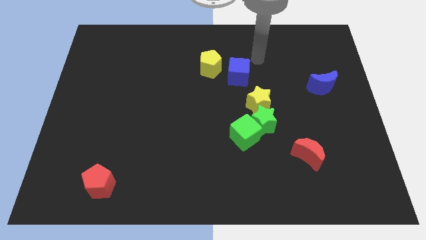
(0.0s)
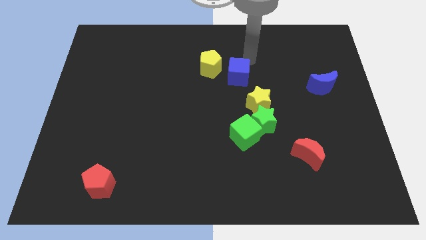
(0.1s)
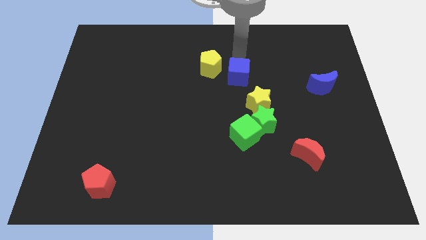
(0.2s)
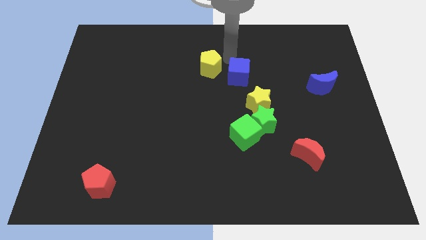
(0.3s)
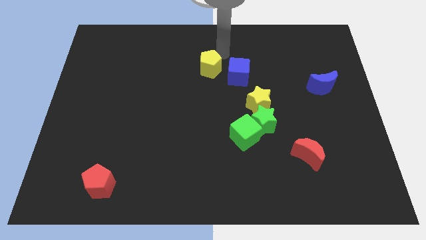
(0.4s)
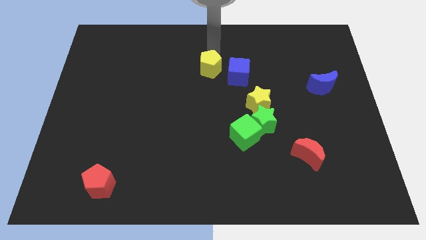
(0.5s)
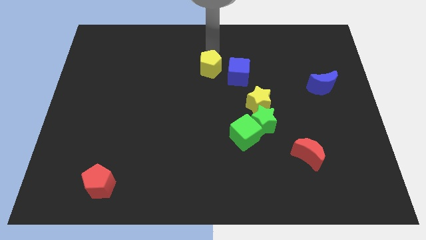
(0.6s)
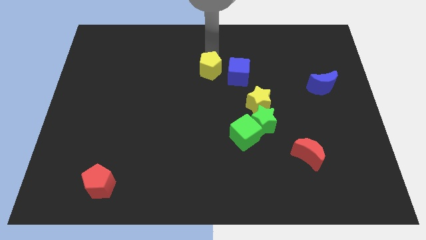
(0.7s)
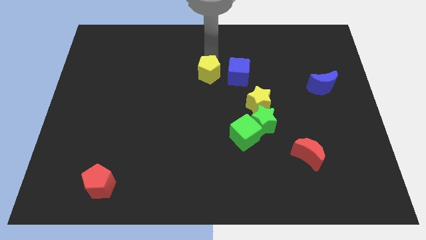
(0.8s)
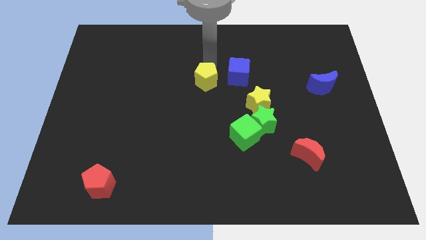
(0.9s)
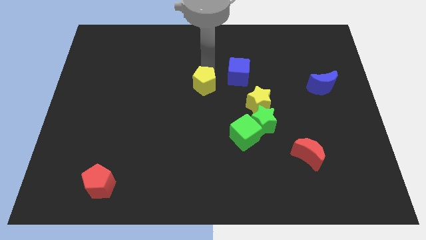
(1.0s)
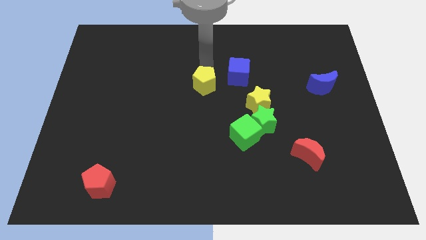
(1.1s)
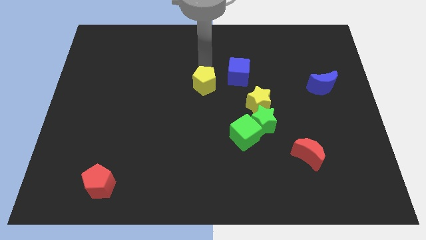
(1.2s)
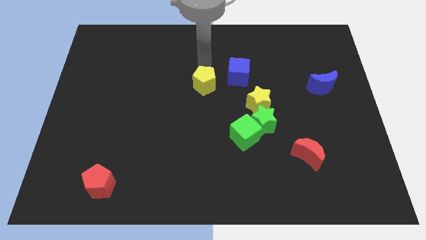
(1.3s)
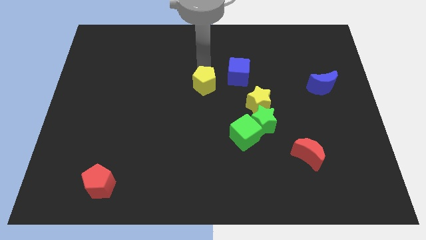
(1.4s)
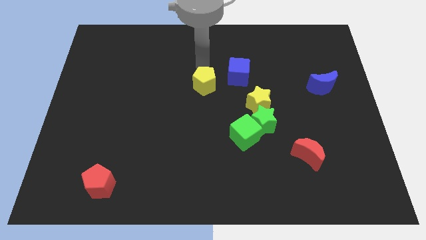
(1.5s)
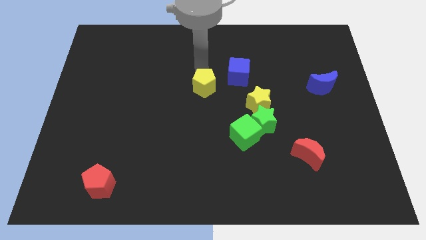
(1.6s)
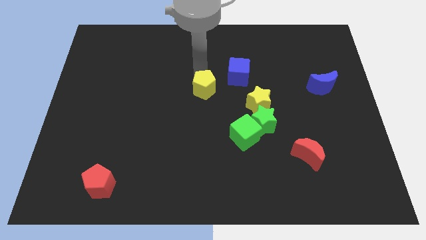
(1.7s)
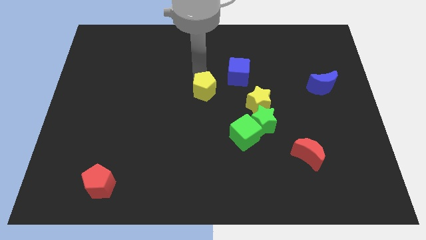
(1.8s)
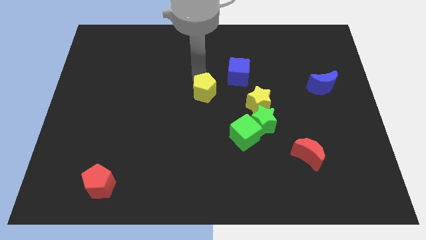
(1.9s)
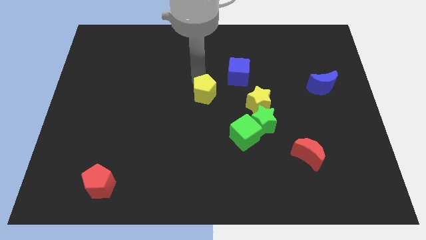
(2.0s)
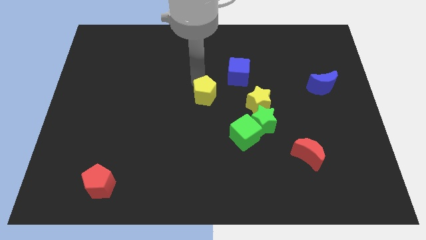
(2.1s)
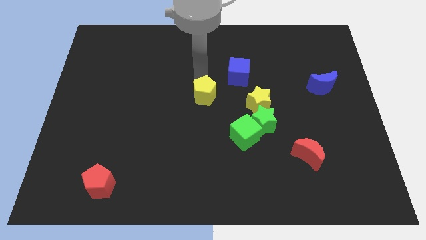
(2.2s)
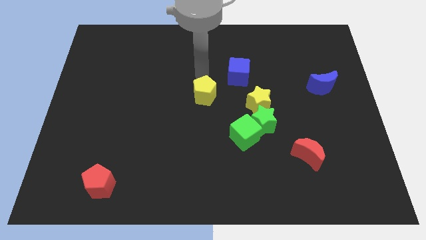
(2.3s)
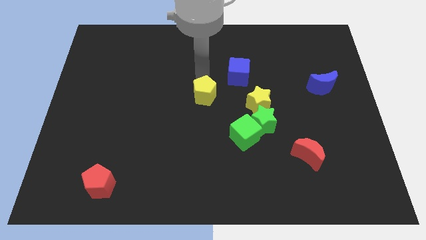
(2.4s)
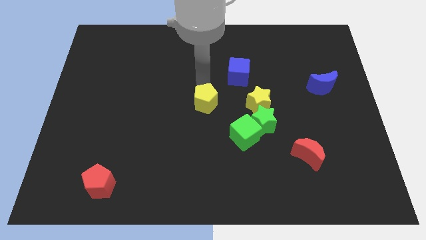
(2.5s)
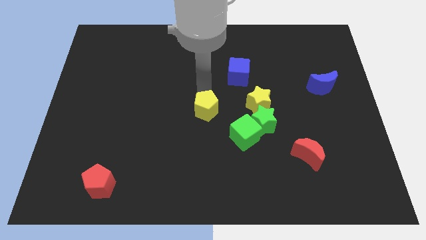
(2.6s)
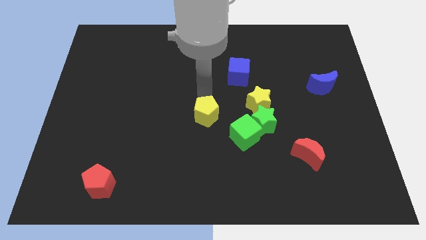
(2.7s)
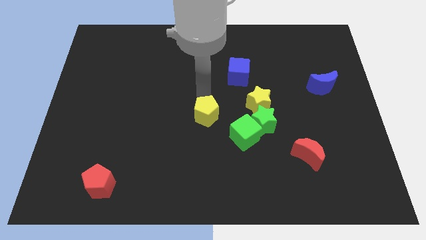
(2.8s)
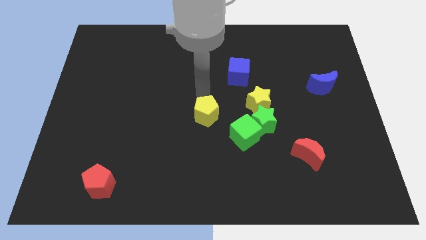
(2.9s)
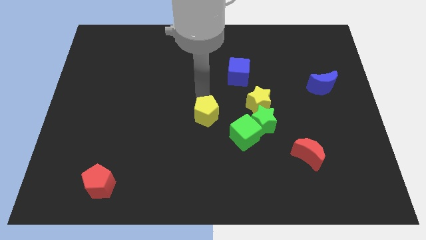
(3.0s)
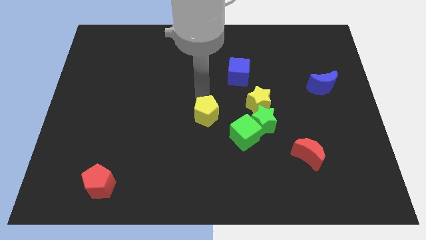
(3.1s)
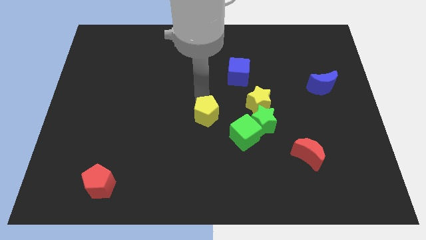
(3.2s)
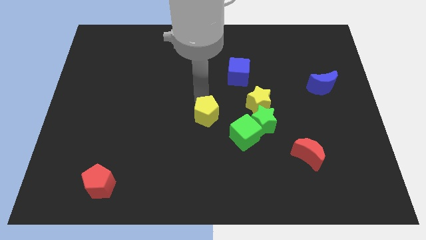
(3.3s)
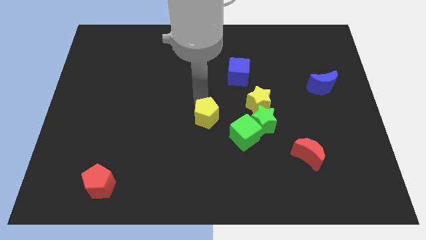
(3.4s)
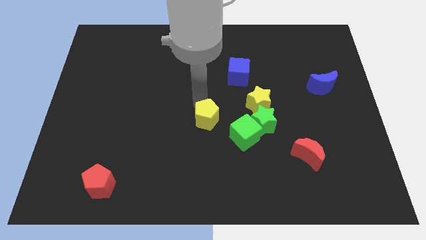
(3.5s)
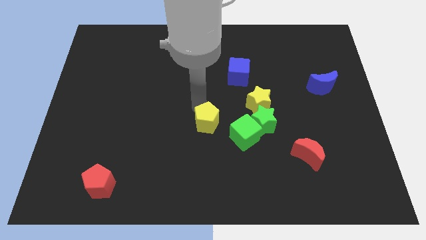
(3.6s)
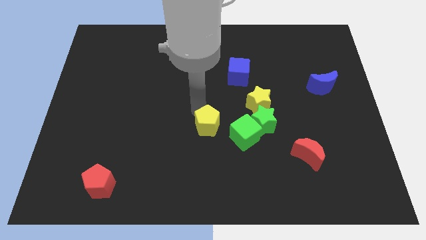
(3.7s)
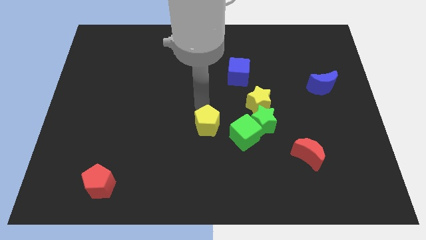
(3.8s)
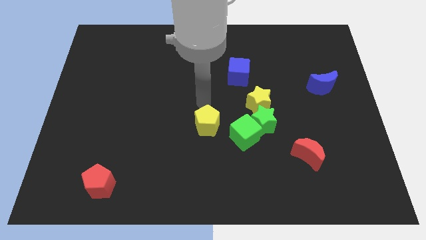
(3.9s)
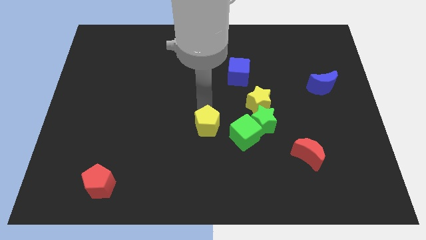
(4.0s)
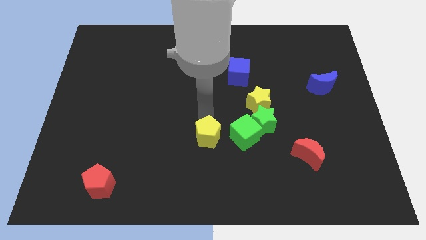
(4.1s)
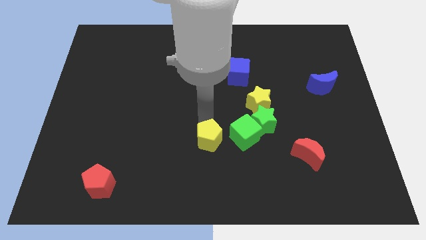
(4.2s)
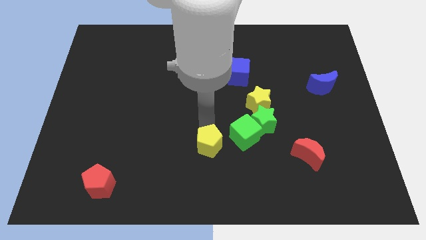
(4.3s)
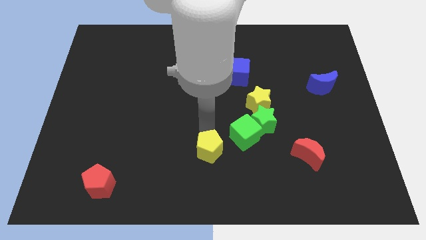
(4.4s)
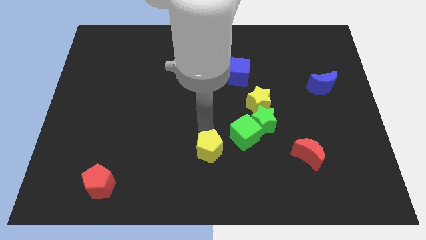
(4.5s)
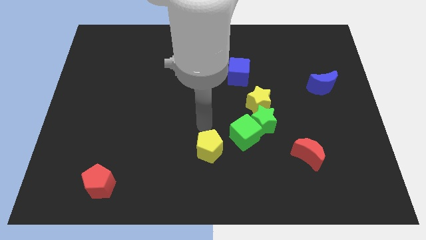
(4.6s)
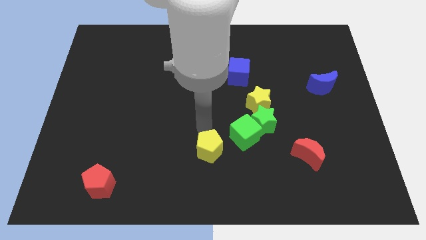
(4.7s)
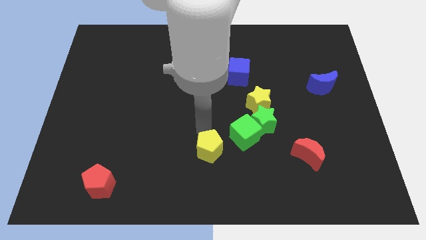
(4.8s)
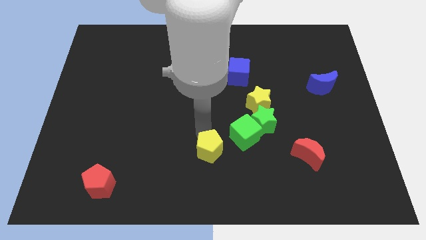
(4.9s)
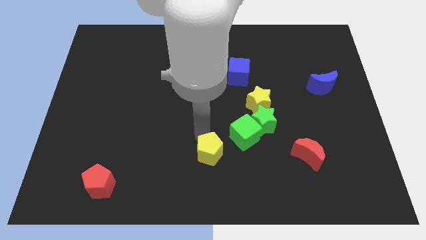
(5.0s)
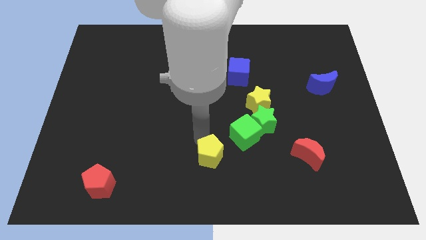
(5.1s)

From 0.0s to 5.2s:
push the yellow pentagon to the bottom

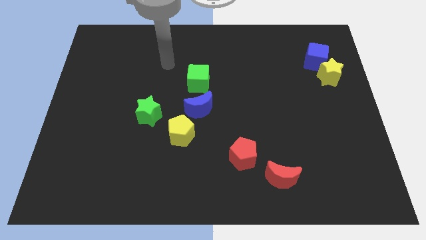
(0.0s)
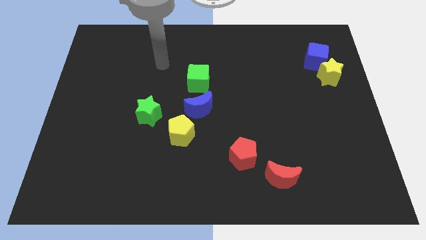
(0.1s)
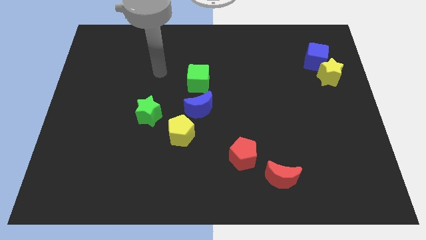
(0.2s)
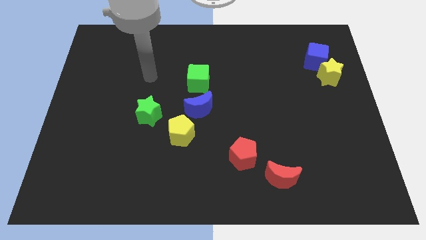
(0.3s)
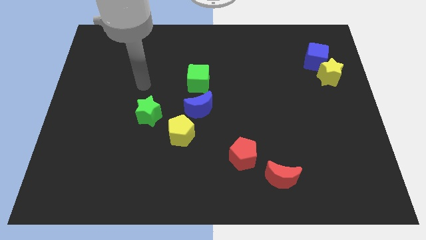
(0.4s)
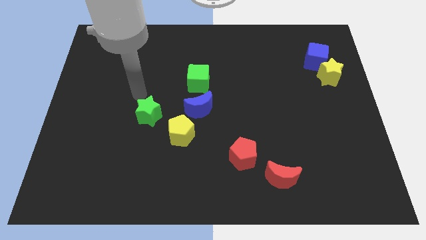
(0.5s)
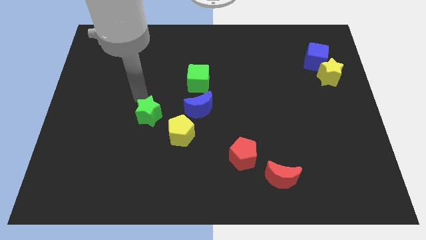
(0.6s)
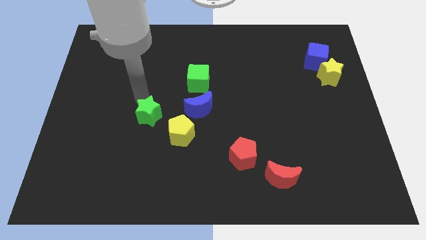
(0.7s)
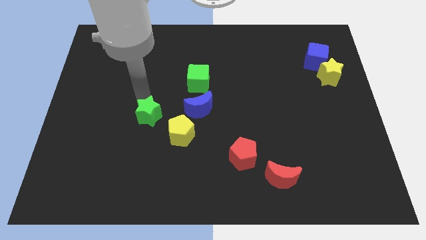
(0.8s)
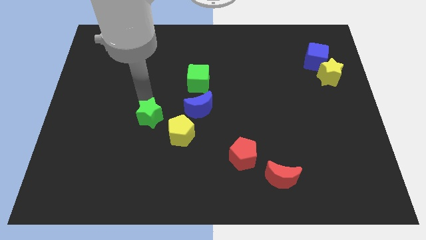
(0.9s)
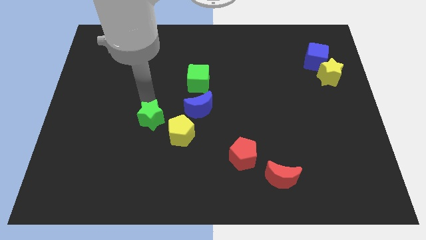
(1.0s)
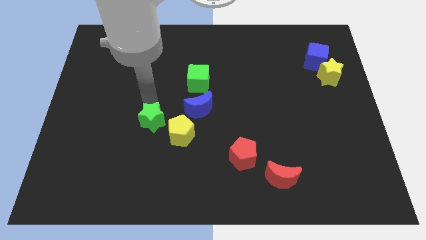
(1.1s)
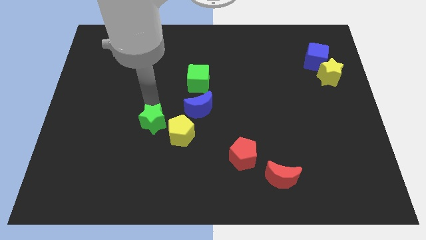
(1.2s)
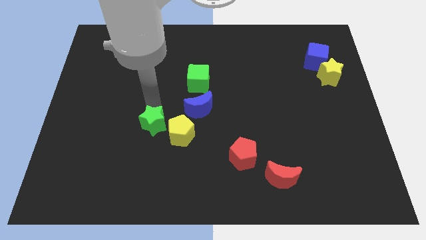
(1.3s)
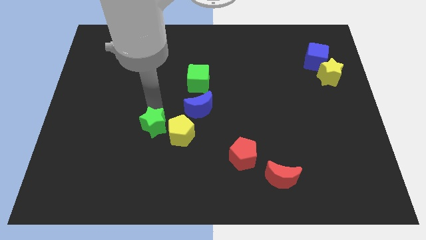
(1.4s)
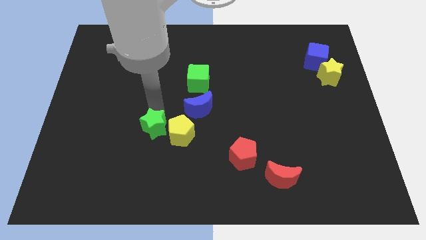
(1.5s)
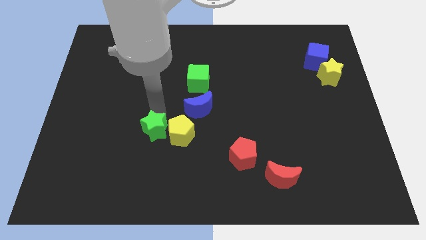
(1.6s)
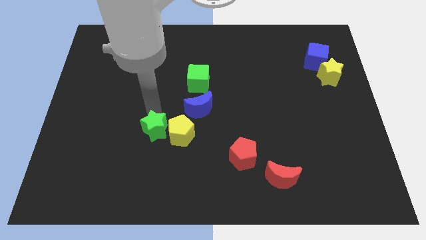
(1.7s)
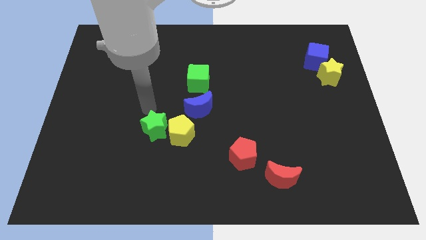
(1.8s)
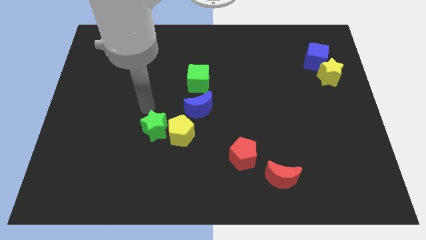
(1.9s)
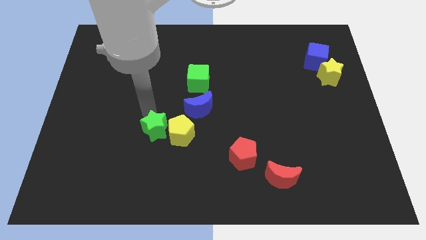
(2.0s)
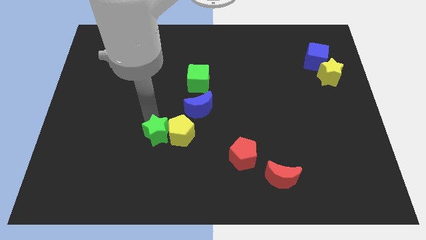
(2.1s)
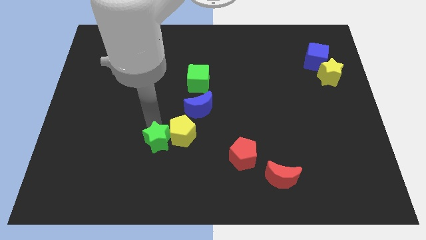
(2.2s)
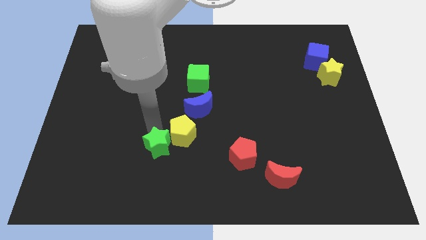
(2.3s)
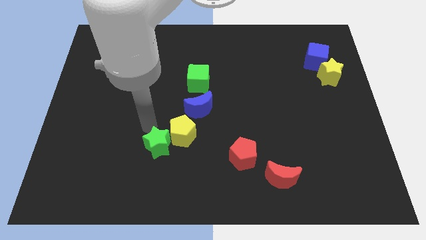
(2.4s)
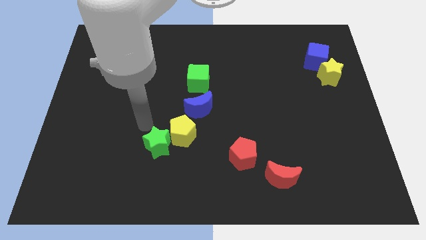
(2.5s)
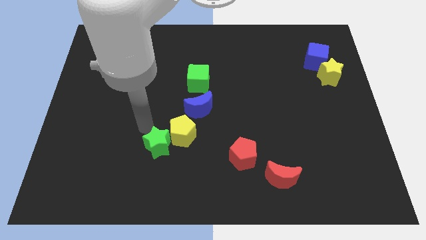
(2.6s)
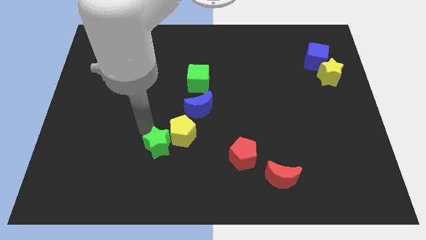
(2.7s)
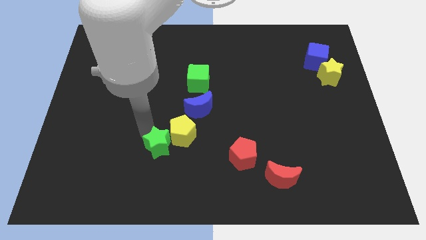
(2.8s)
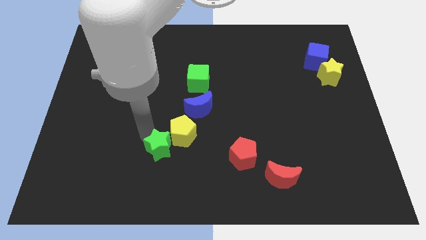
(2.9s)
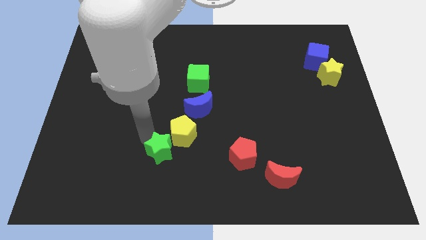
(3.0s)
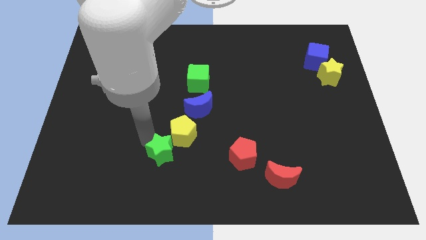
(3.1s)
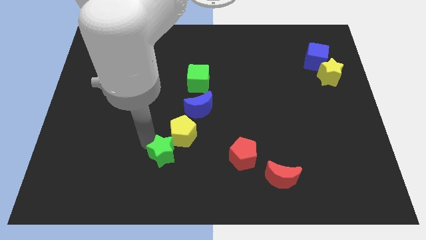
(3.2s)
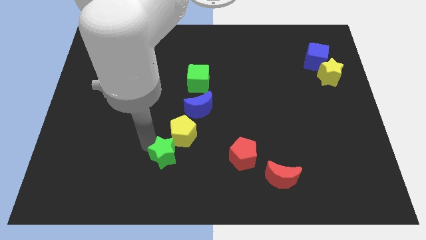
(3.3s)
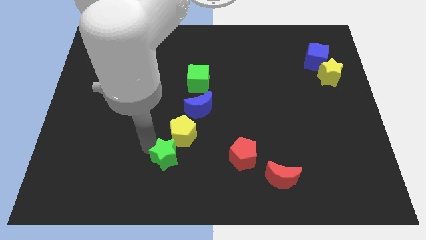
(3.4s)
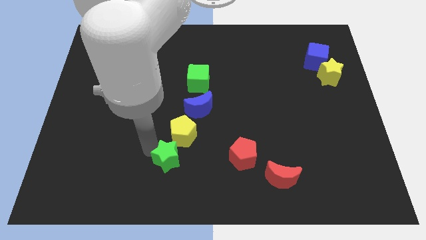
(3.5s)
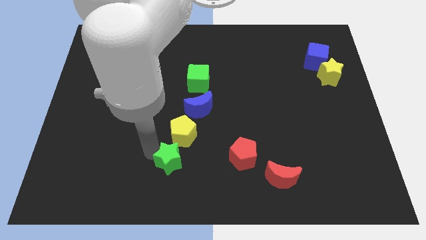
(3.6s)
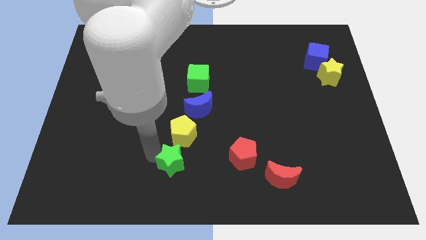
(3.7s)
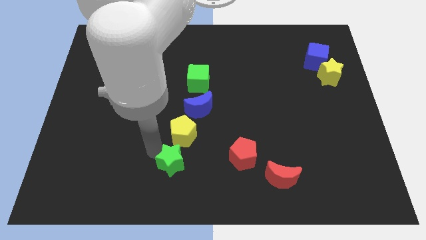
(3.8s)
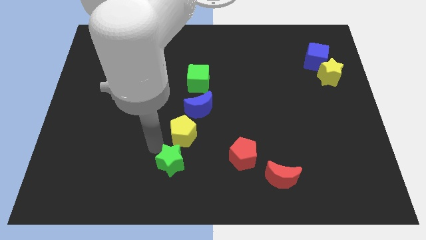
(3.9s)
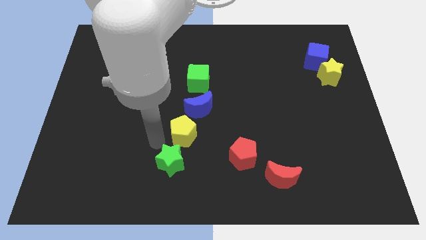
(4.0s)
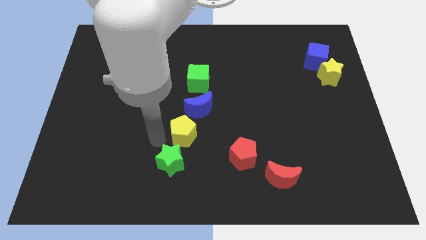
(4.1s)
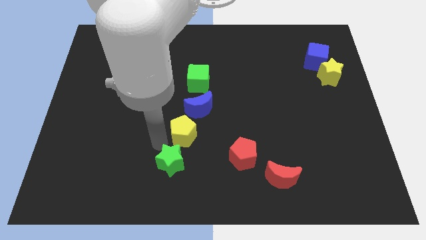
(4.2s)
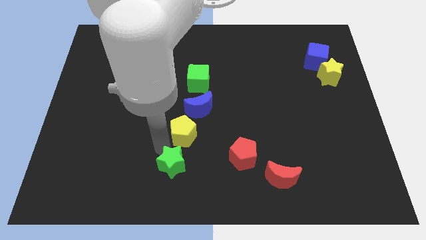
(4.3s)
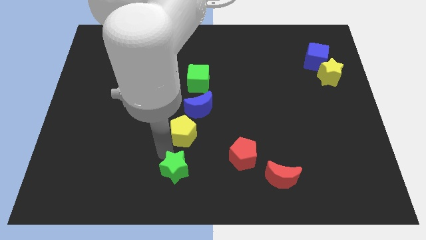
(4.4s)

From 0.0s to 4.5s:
move the green star to the bottom
